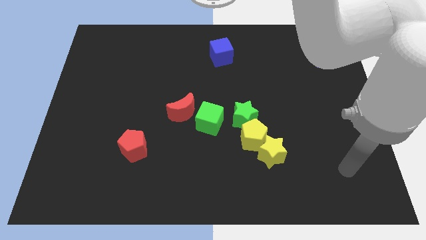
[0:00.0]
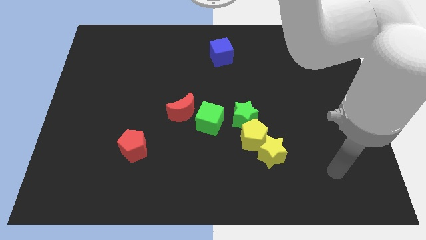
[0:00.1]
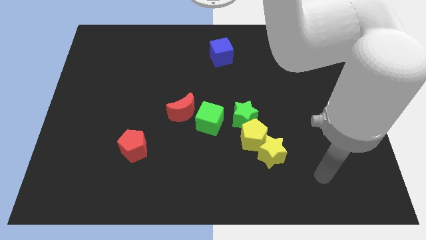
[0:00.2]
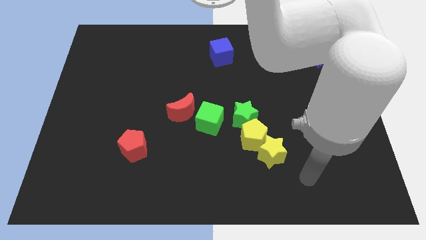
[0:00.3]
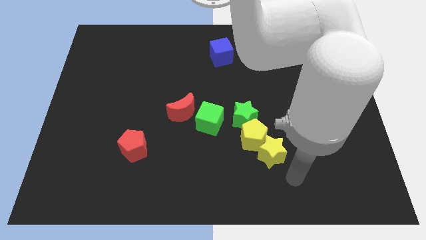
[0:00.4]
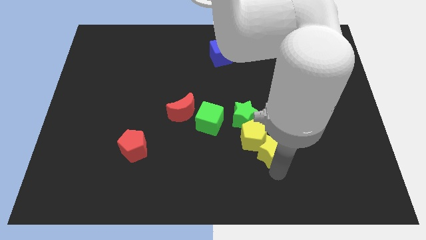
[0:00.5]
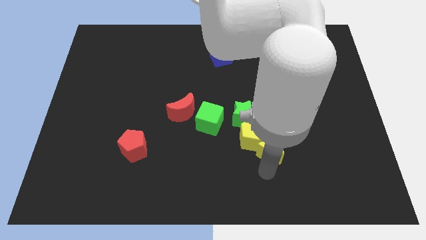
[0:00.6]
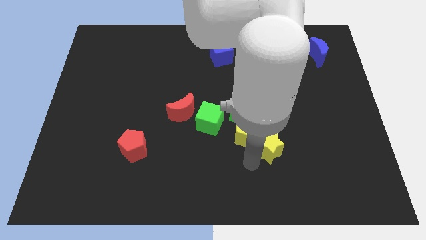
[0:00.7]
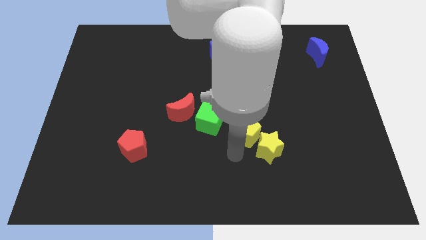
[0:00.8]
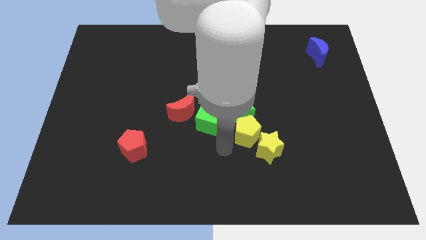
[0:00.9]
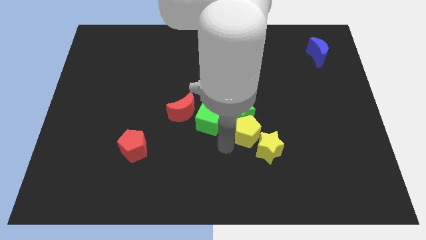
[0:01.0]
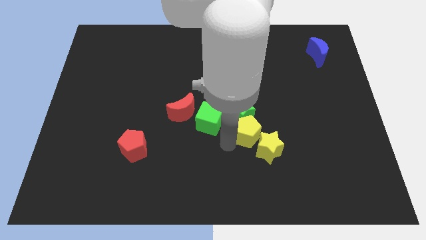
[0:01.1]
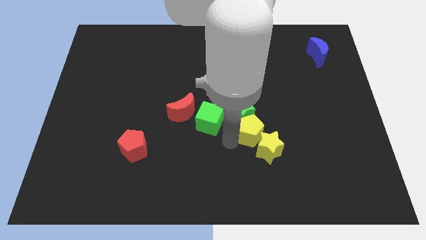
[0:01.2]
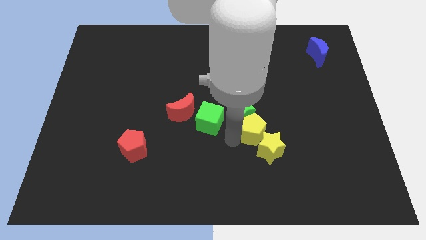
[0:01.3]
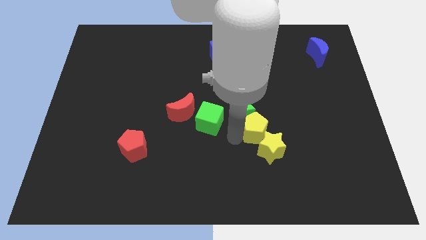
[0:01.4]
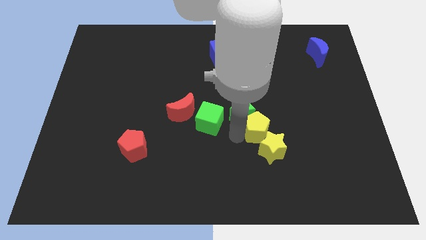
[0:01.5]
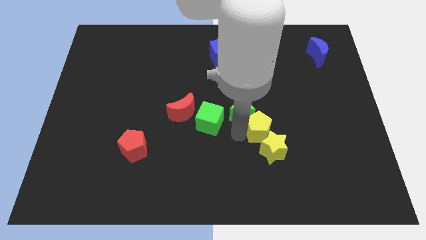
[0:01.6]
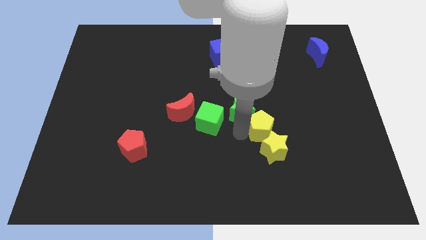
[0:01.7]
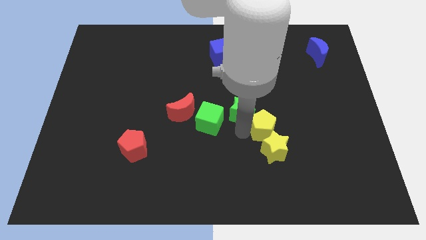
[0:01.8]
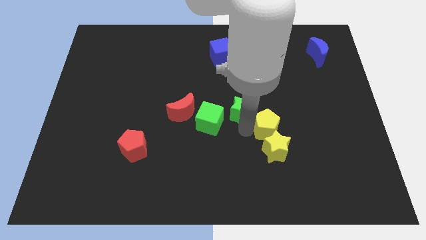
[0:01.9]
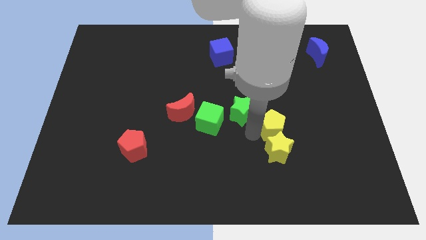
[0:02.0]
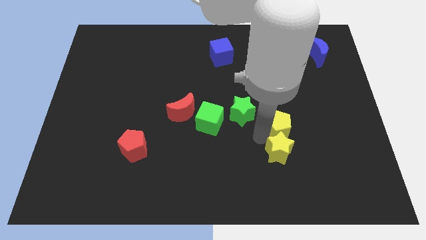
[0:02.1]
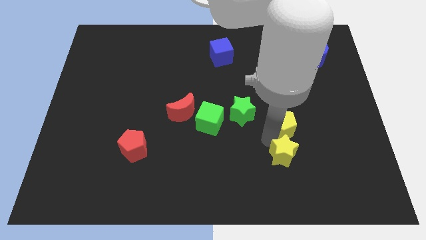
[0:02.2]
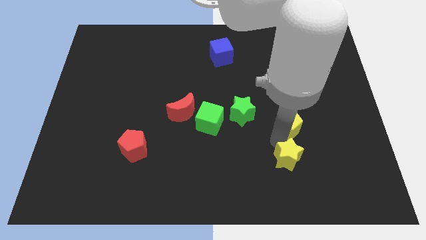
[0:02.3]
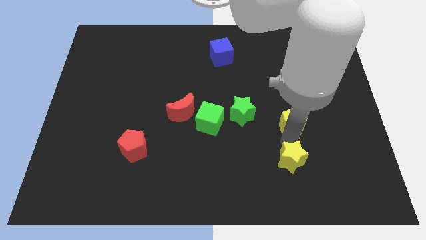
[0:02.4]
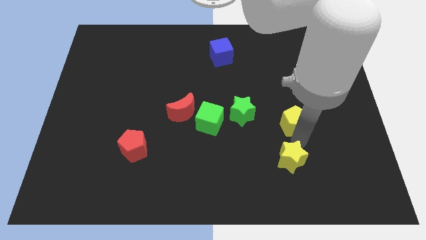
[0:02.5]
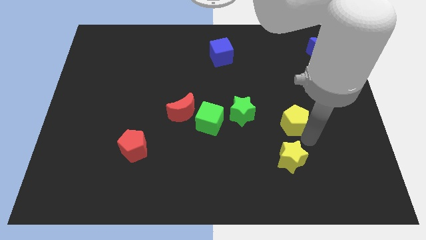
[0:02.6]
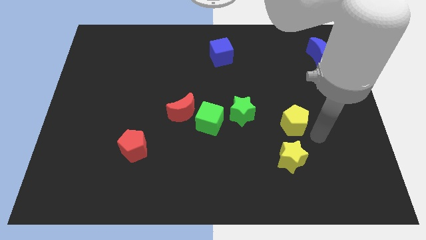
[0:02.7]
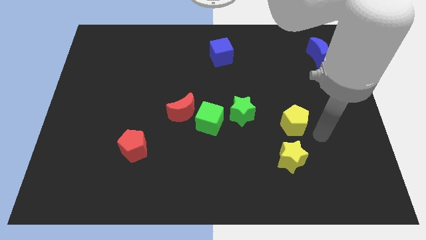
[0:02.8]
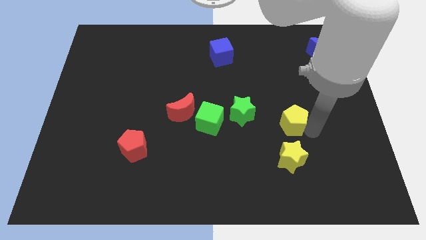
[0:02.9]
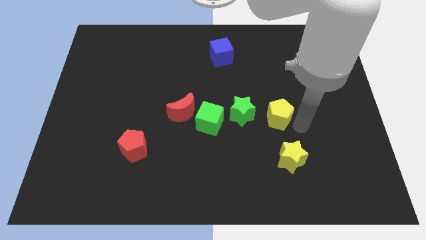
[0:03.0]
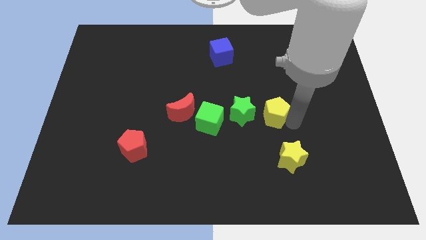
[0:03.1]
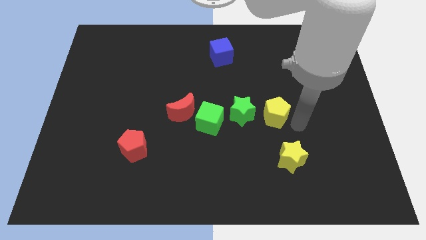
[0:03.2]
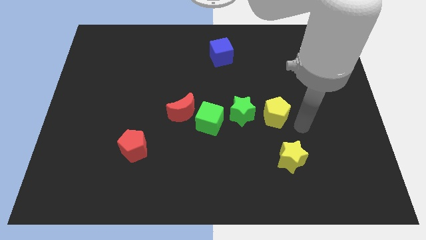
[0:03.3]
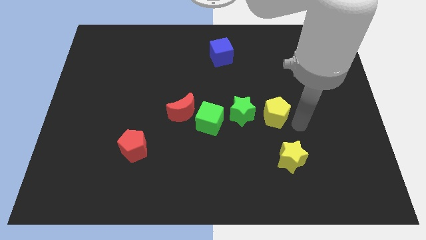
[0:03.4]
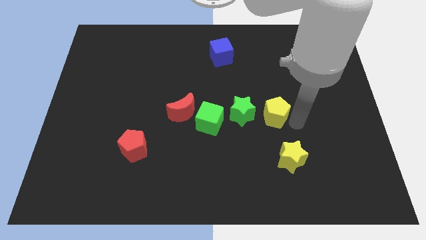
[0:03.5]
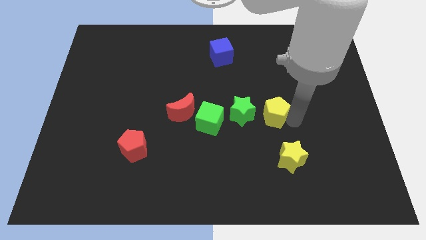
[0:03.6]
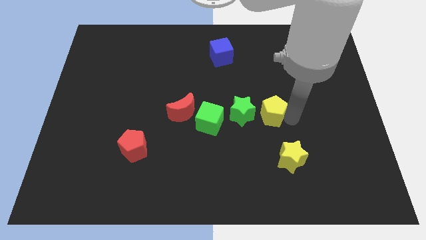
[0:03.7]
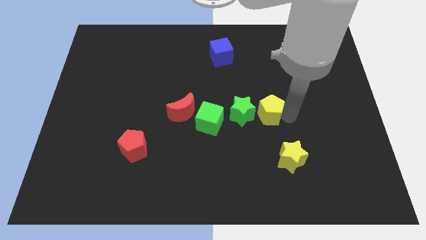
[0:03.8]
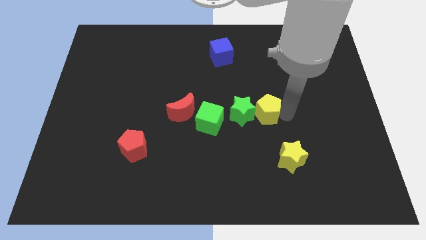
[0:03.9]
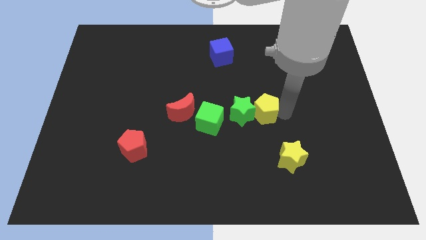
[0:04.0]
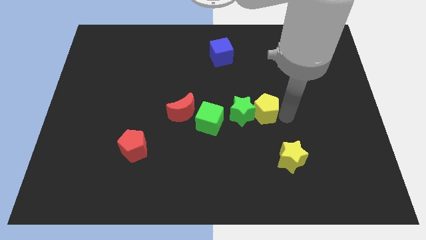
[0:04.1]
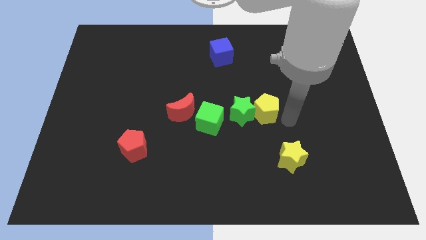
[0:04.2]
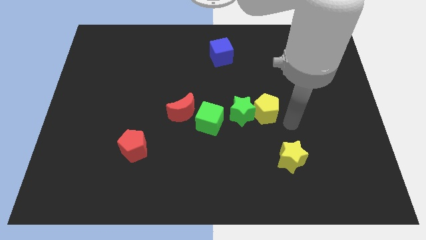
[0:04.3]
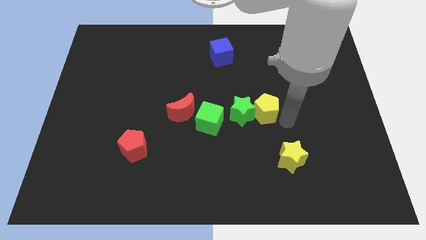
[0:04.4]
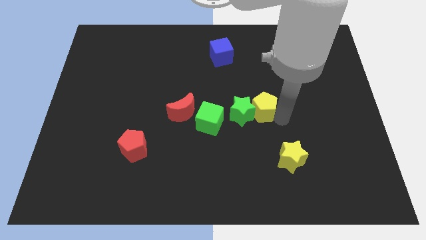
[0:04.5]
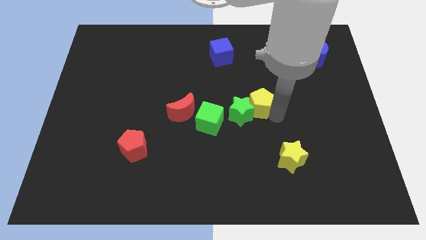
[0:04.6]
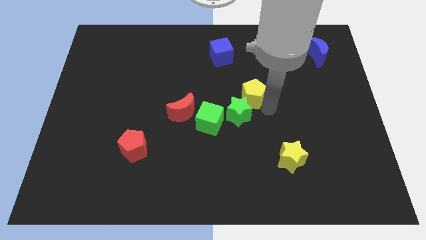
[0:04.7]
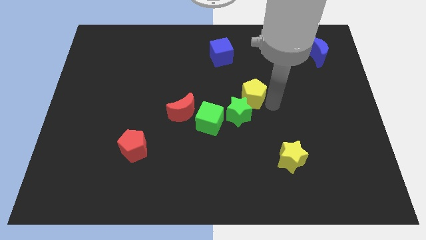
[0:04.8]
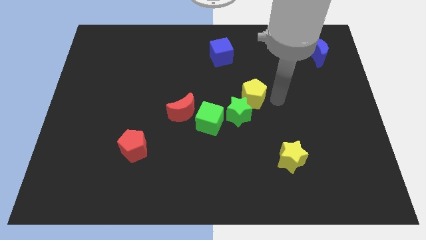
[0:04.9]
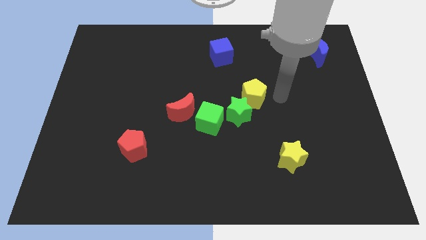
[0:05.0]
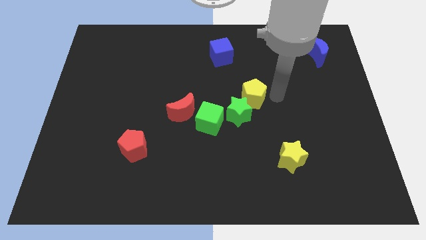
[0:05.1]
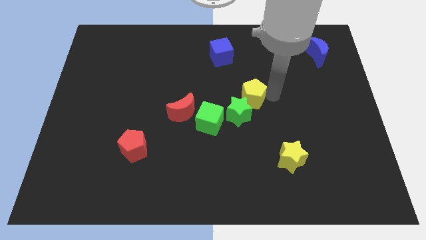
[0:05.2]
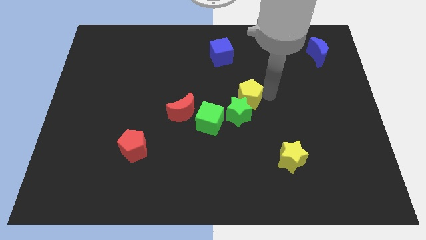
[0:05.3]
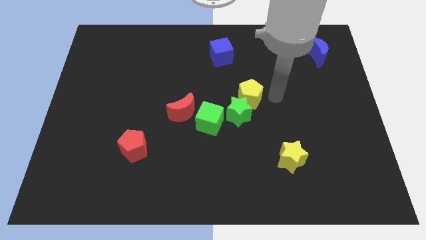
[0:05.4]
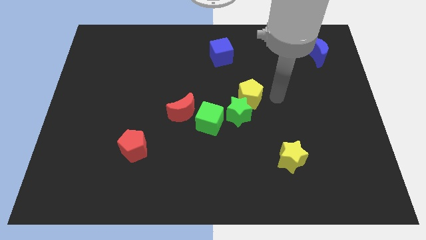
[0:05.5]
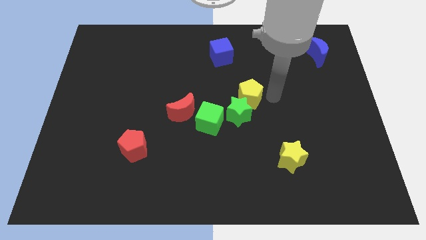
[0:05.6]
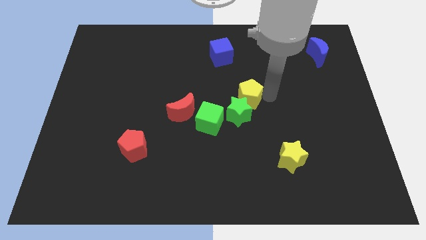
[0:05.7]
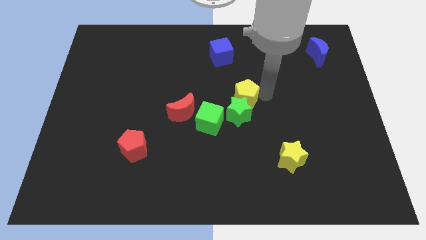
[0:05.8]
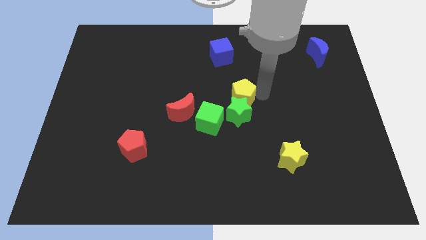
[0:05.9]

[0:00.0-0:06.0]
put the yellow pentagon to the top left side of the green star
